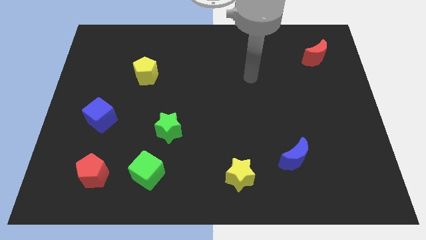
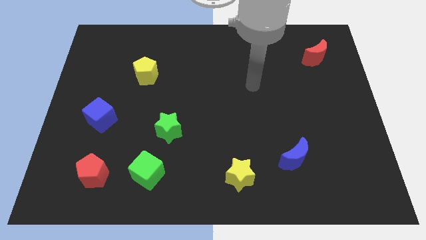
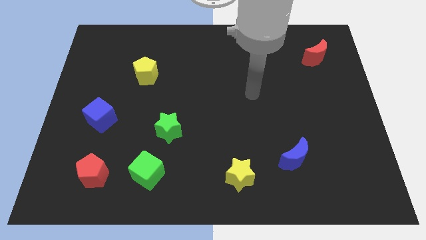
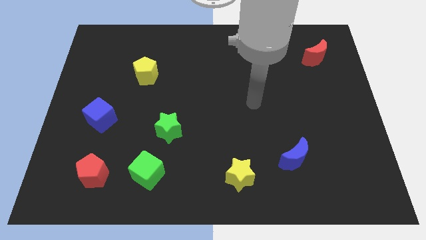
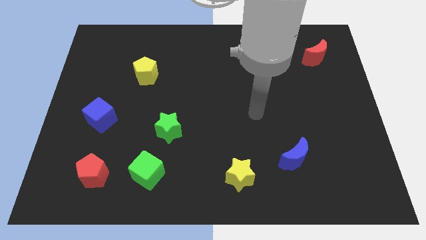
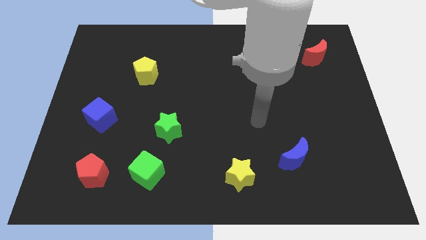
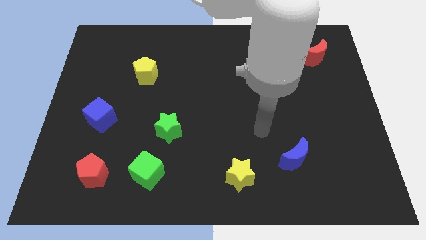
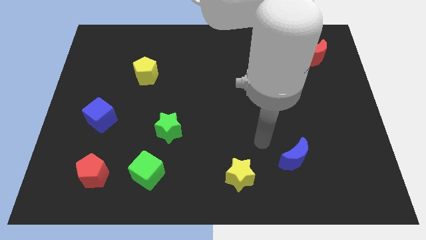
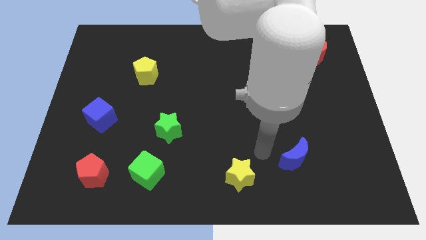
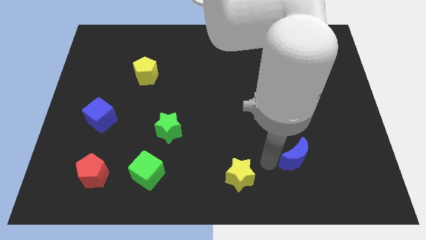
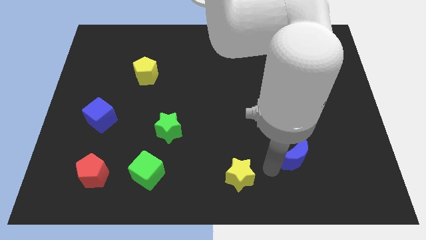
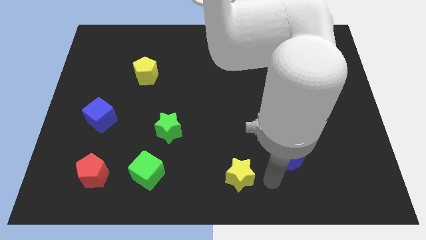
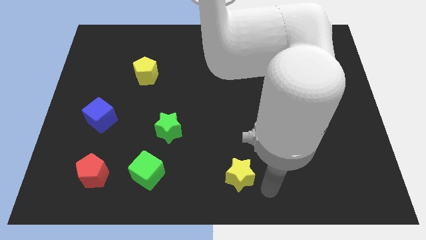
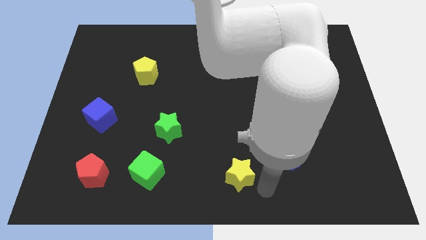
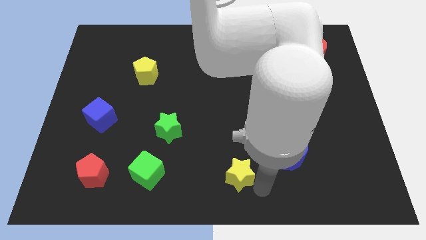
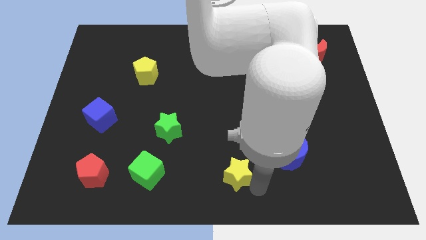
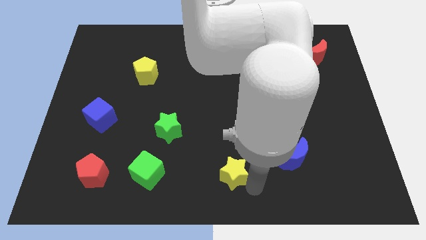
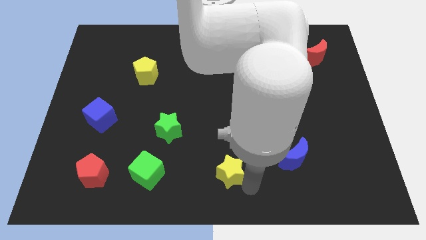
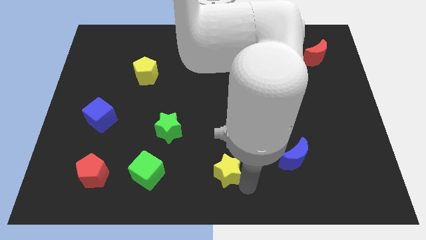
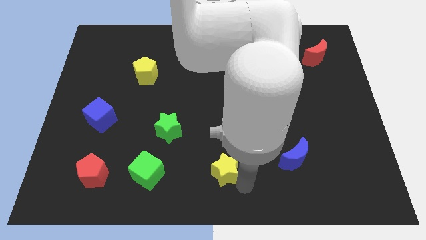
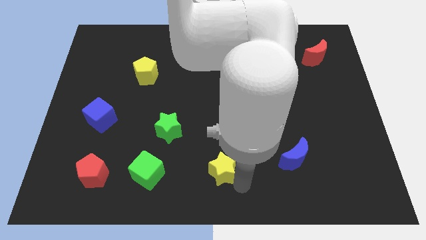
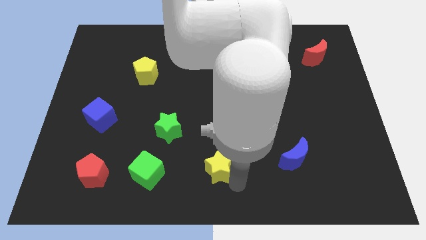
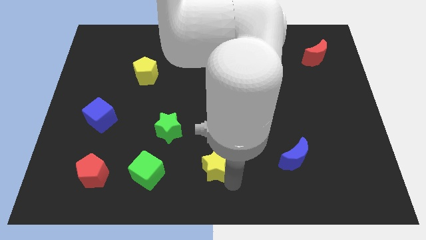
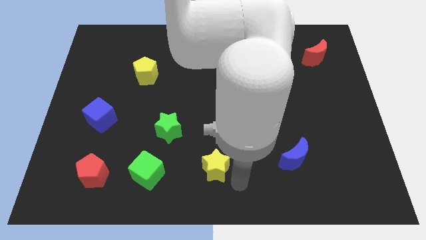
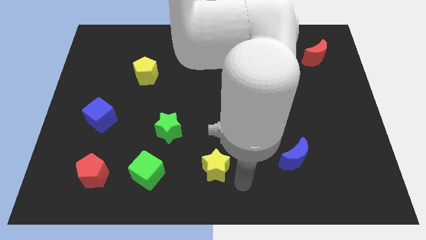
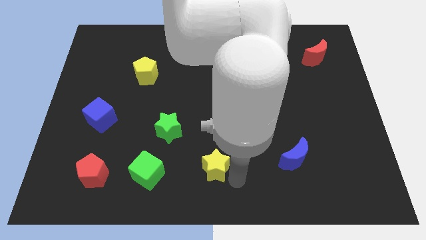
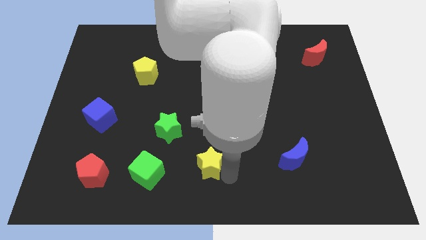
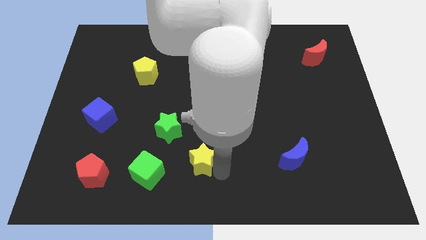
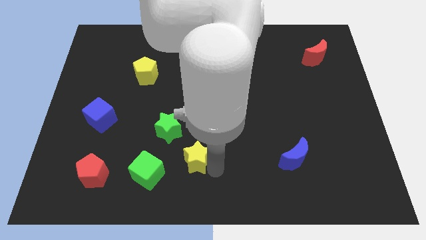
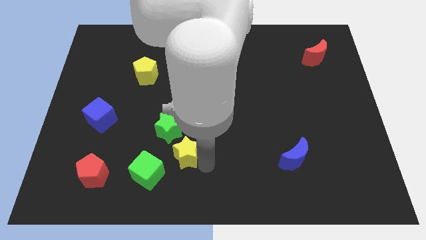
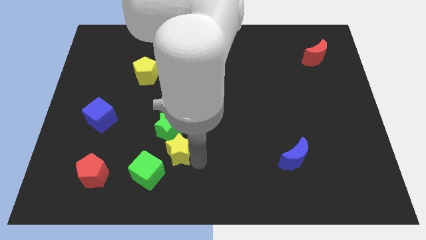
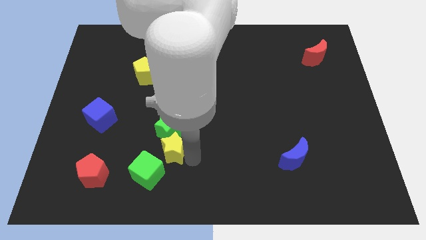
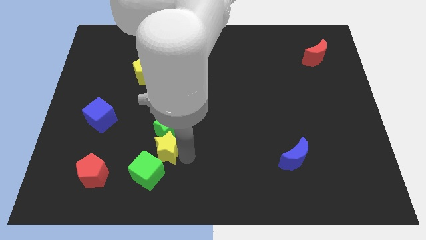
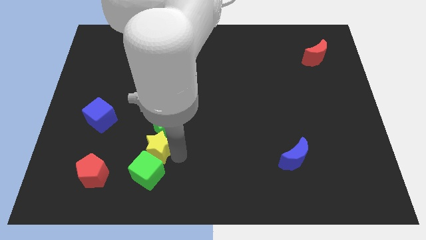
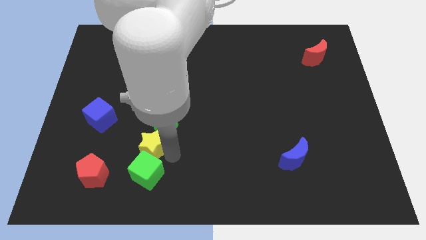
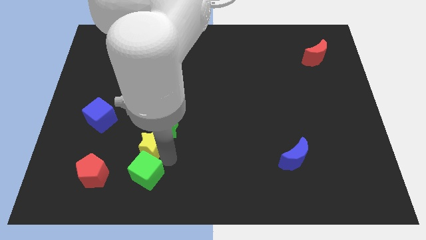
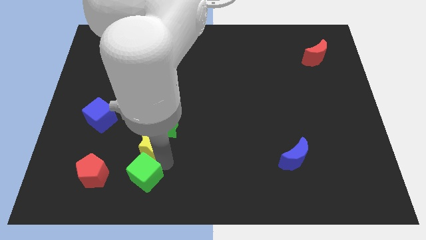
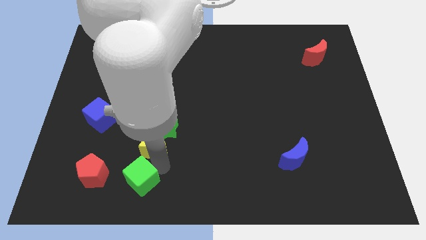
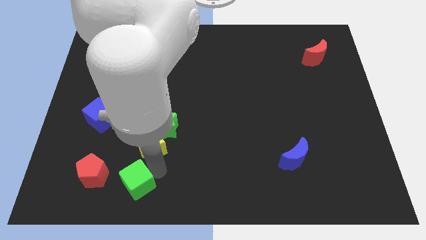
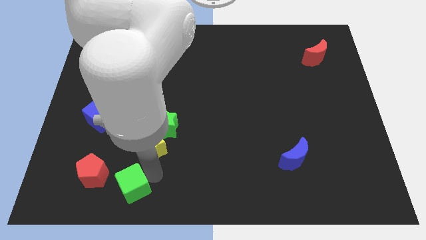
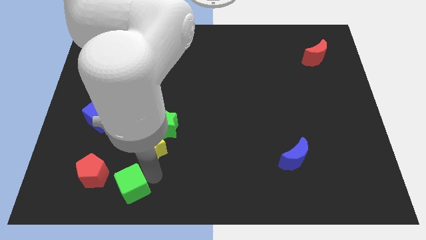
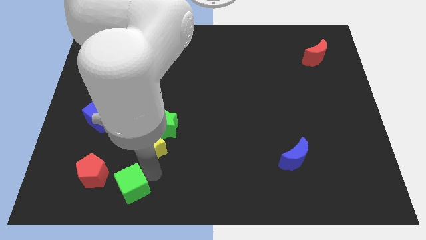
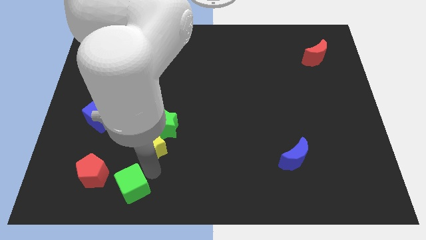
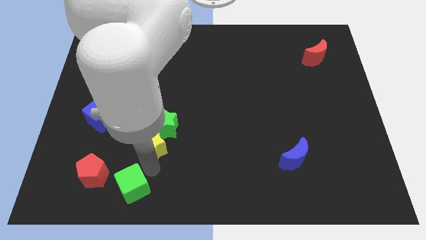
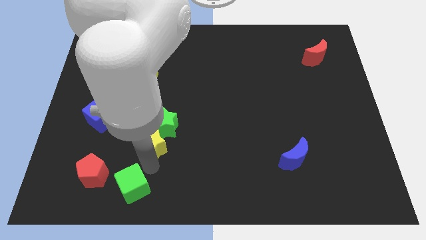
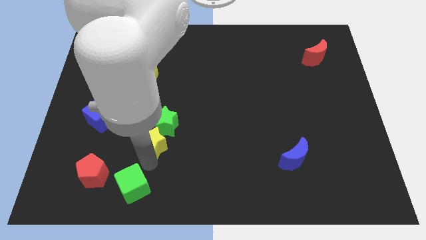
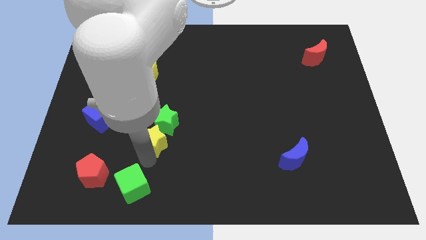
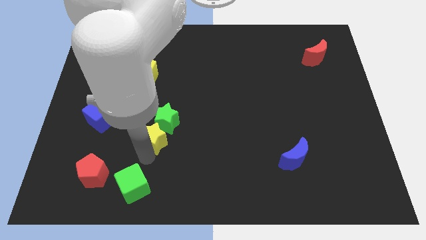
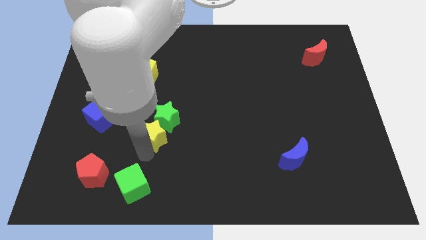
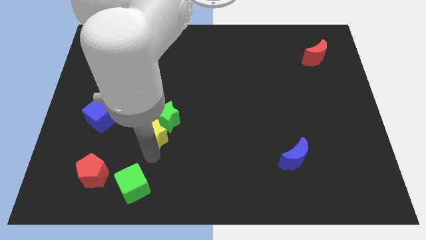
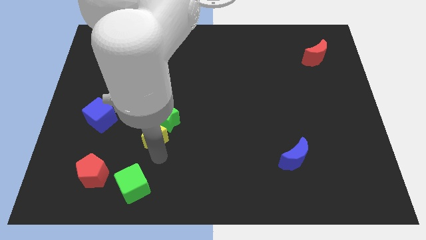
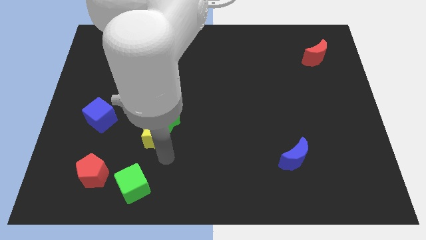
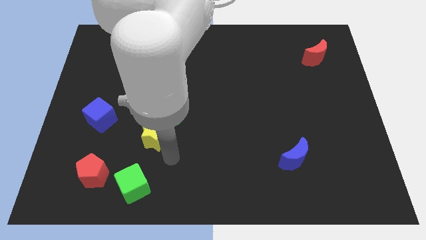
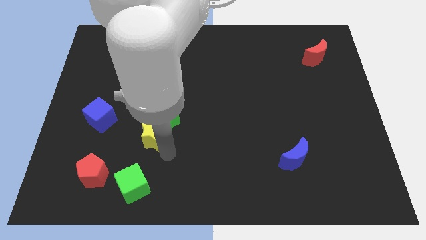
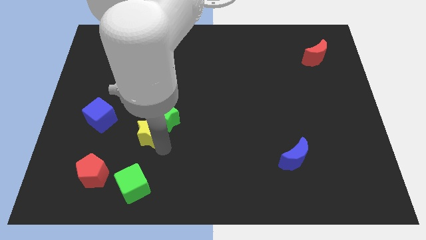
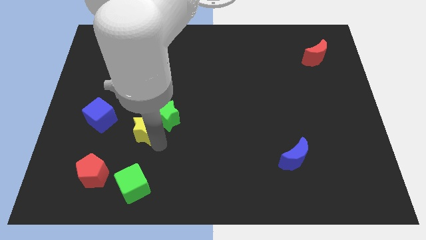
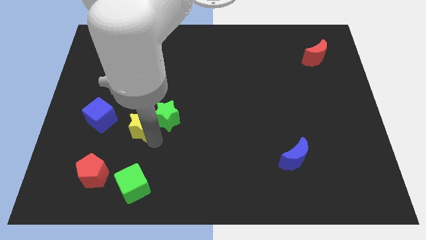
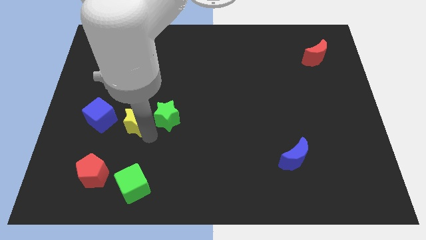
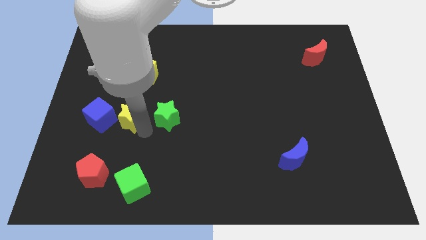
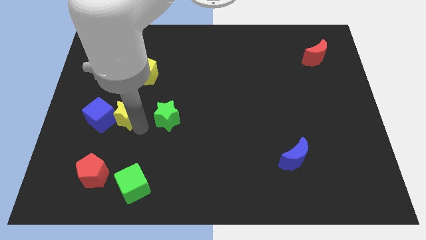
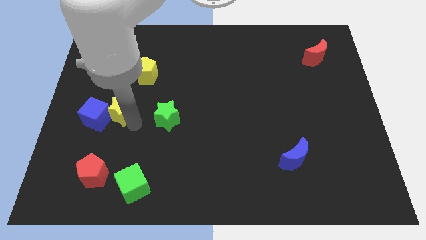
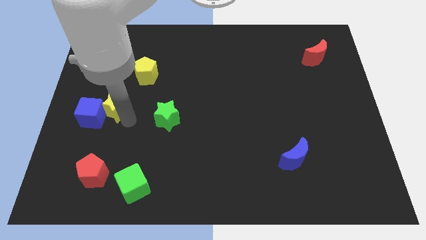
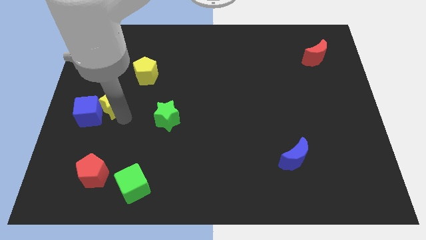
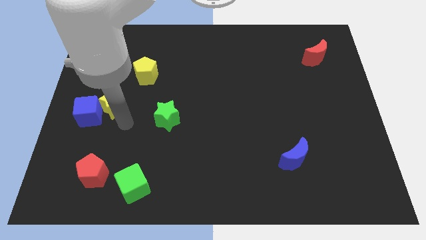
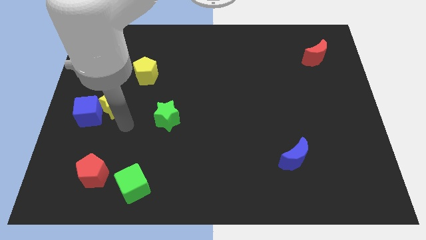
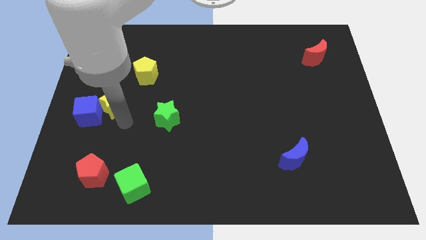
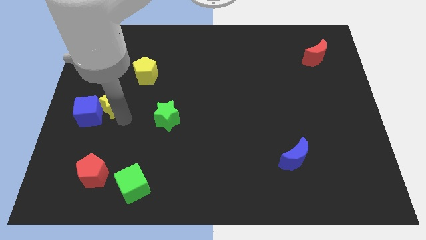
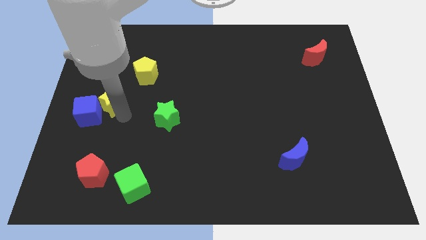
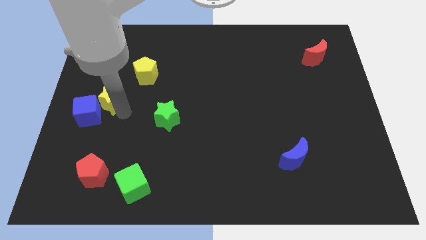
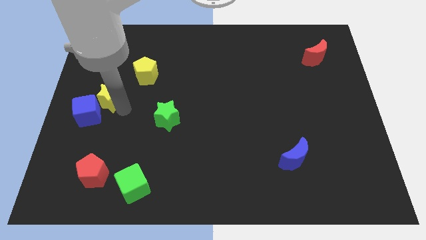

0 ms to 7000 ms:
push the yellow star to the top of the blue cube
